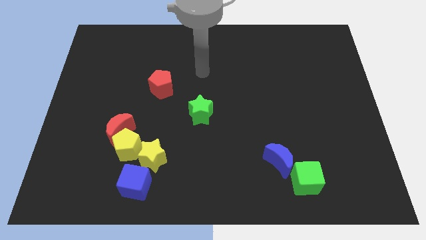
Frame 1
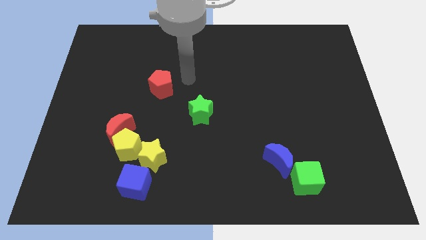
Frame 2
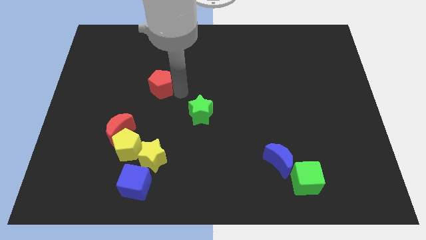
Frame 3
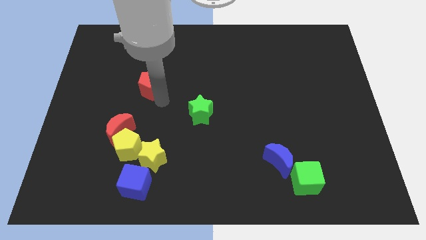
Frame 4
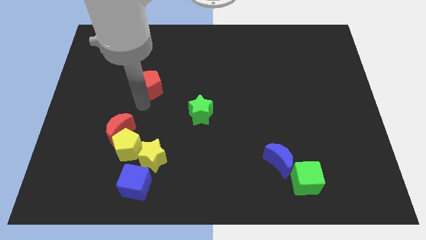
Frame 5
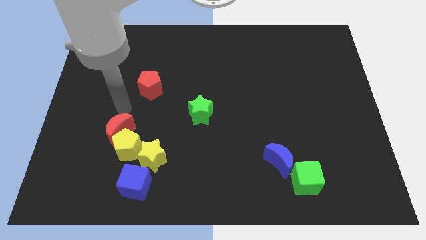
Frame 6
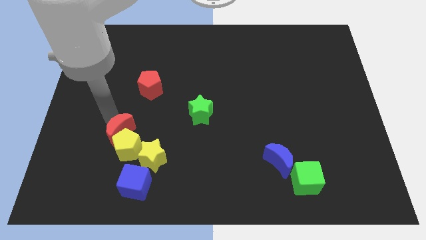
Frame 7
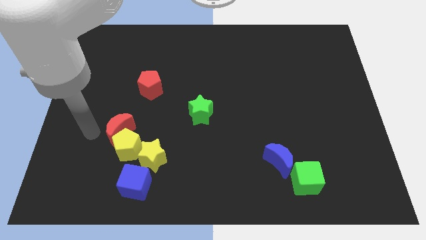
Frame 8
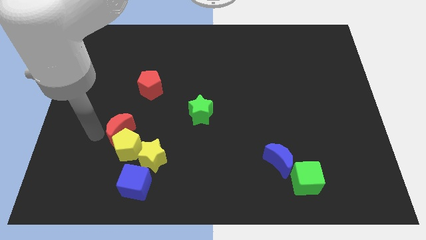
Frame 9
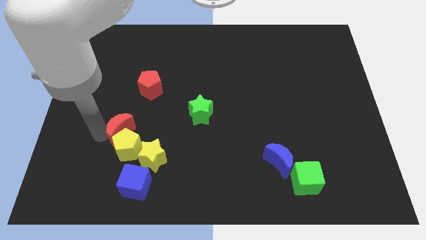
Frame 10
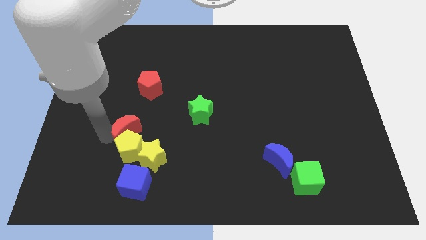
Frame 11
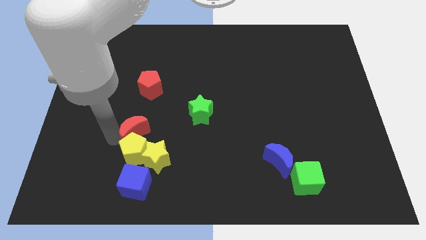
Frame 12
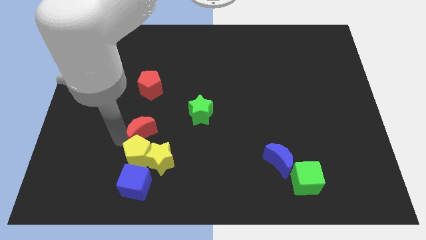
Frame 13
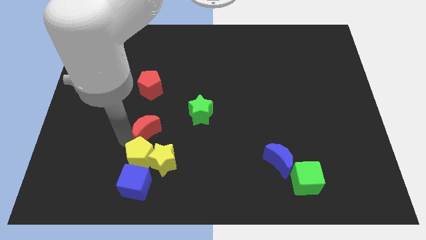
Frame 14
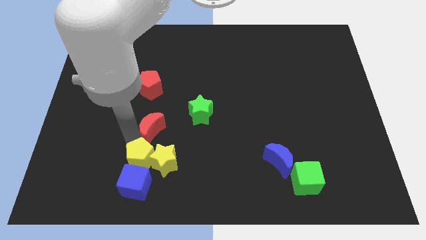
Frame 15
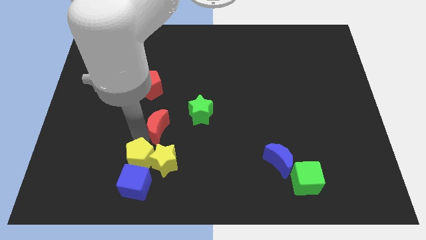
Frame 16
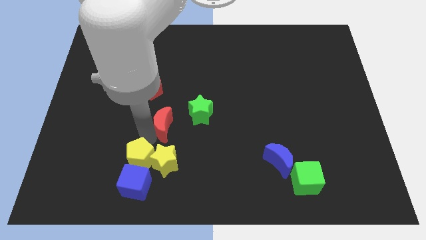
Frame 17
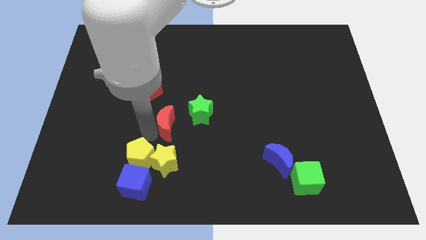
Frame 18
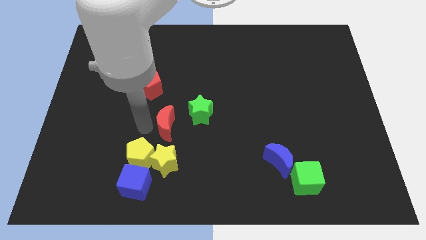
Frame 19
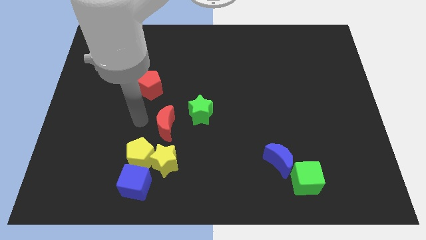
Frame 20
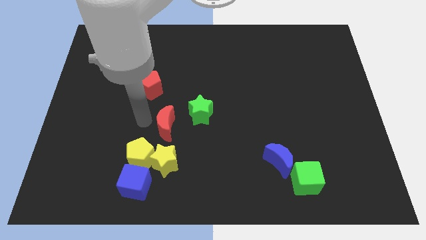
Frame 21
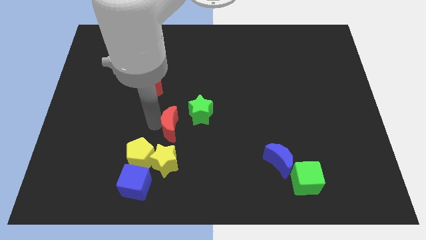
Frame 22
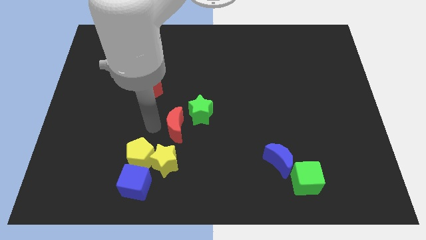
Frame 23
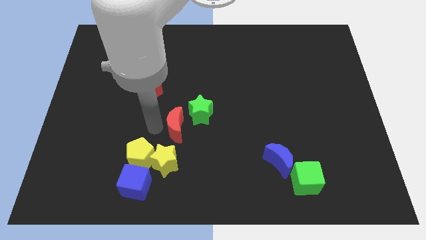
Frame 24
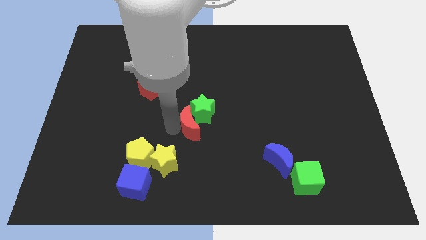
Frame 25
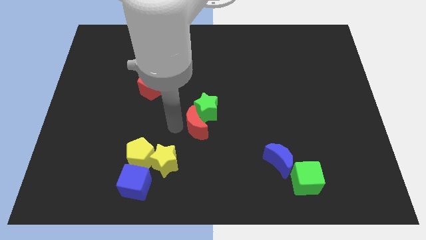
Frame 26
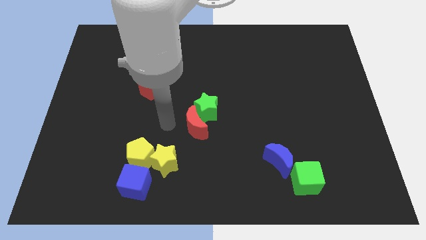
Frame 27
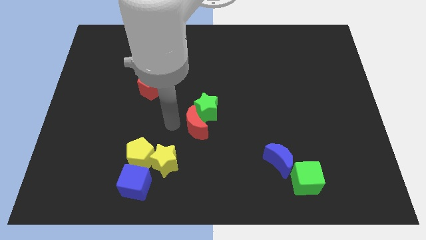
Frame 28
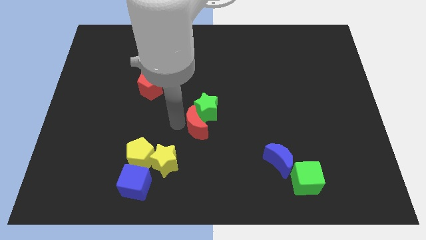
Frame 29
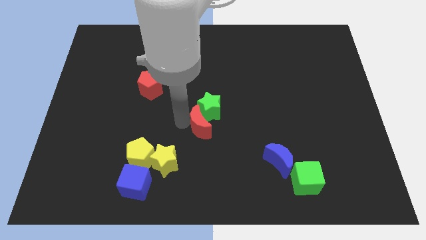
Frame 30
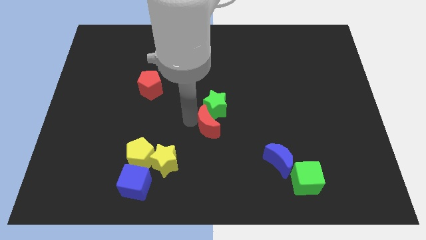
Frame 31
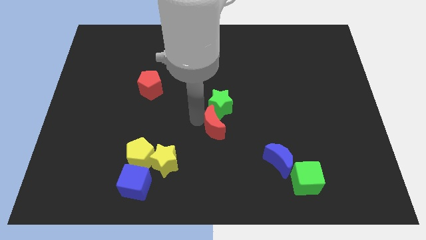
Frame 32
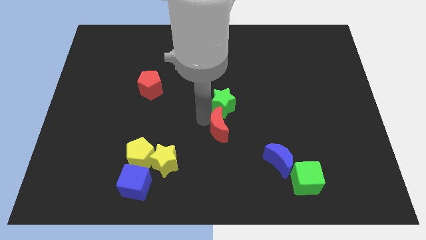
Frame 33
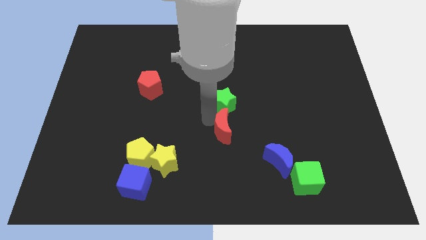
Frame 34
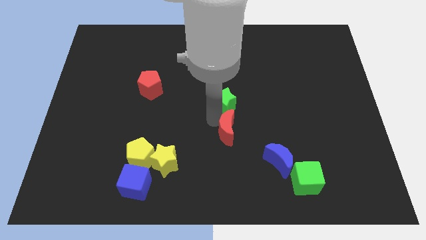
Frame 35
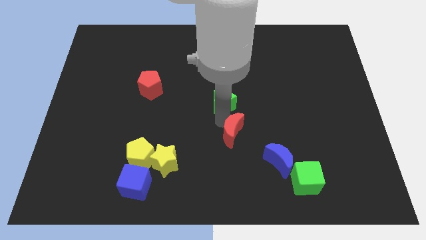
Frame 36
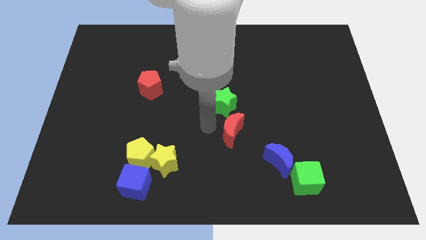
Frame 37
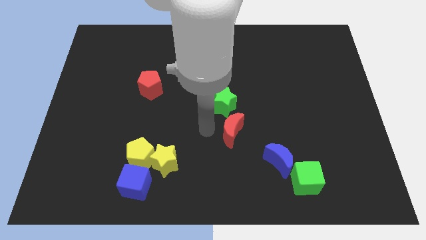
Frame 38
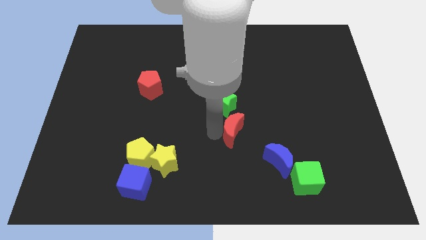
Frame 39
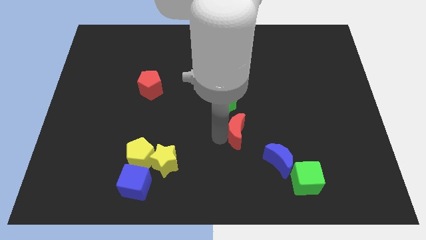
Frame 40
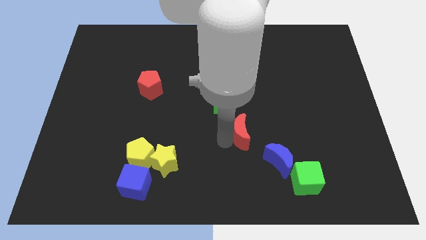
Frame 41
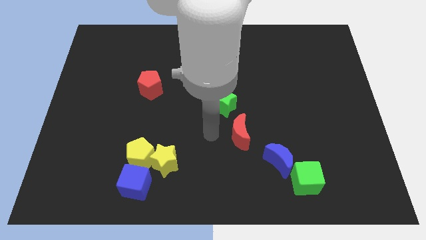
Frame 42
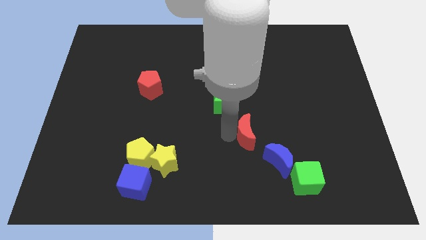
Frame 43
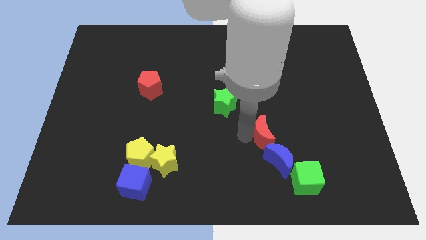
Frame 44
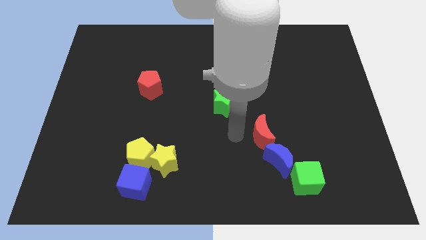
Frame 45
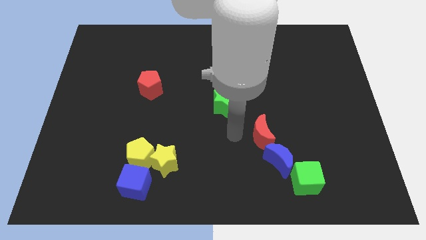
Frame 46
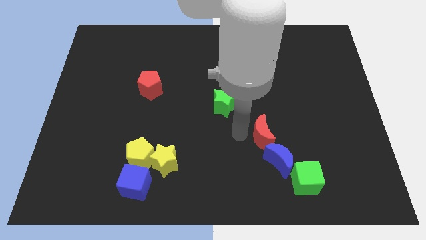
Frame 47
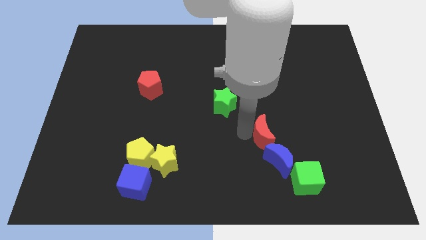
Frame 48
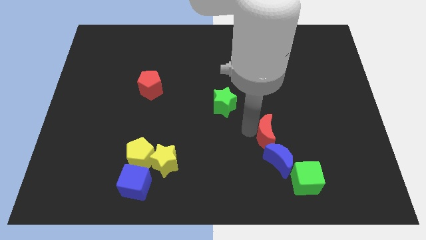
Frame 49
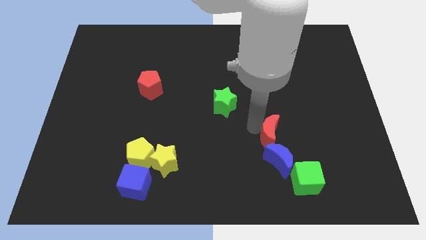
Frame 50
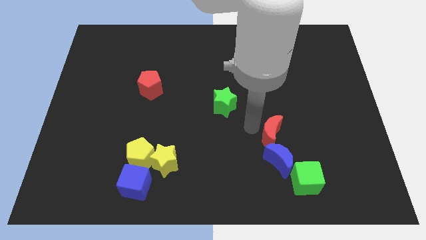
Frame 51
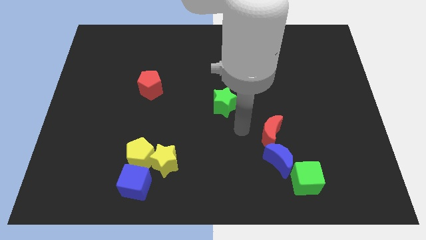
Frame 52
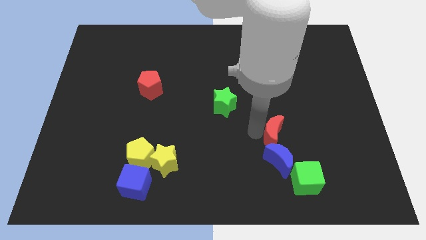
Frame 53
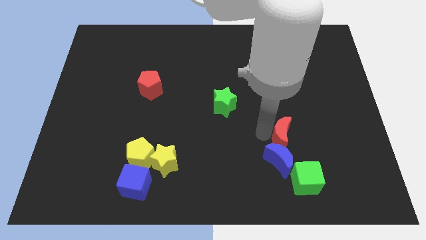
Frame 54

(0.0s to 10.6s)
put the red moon diagonally up and to the right of the blue moon

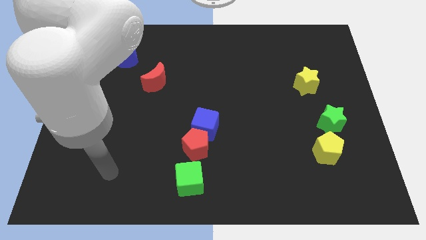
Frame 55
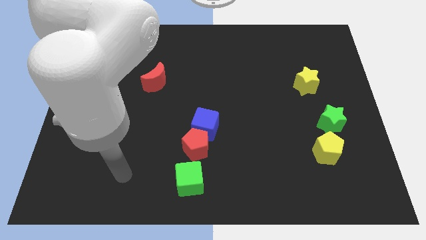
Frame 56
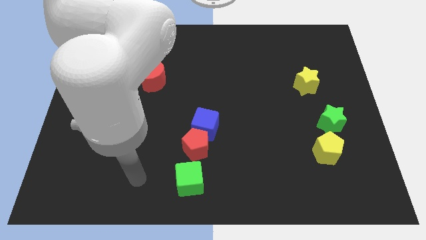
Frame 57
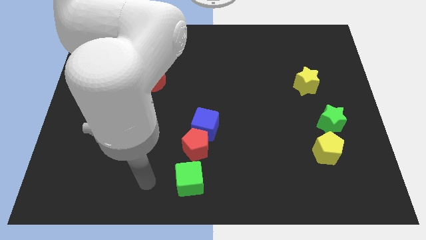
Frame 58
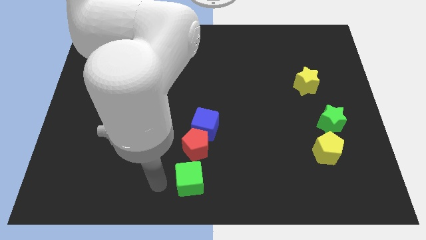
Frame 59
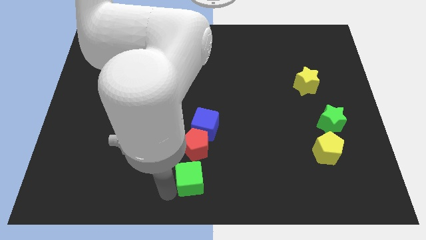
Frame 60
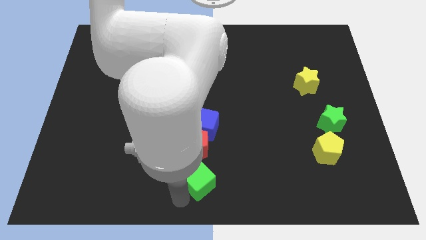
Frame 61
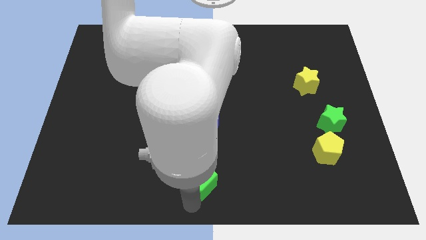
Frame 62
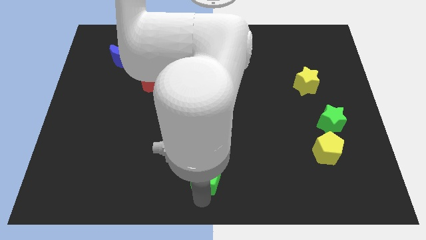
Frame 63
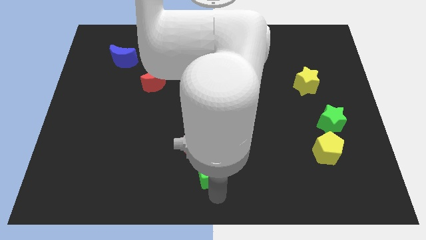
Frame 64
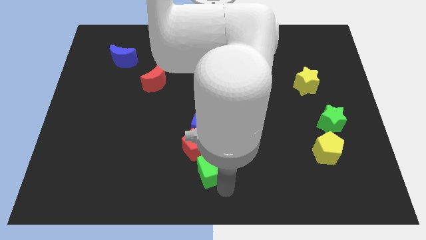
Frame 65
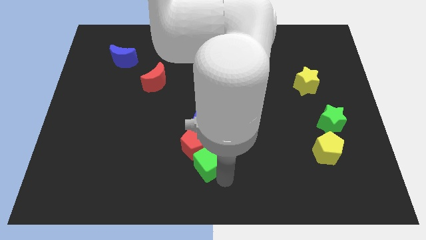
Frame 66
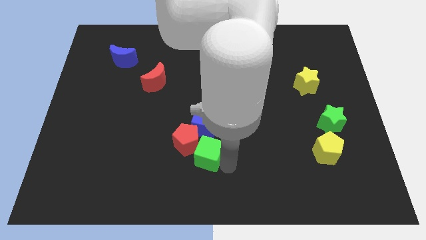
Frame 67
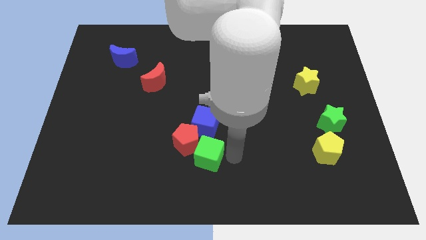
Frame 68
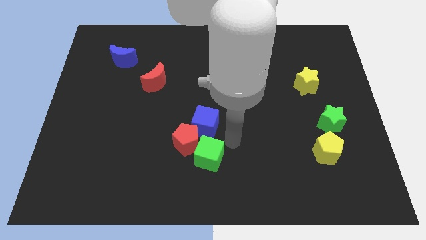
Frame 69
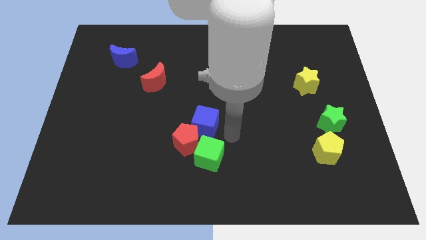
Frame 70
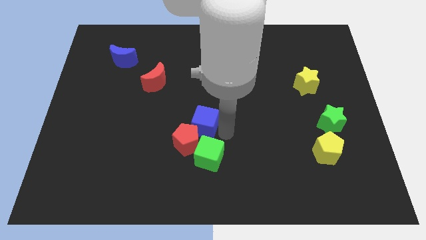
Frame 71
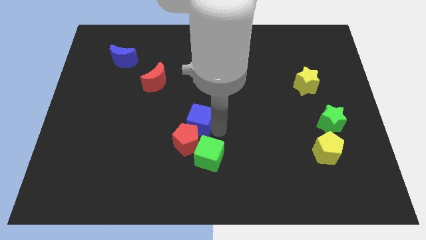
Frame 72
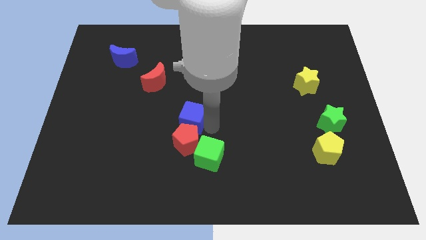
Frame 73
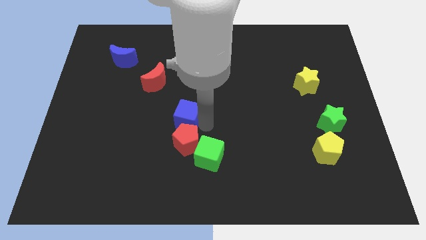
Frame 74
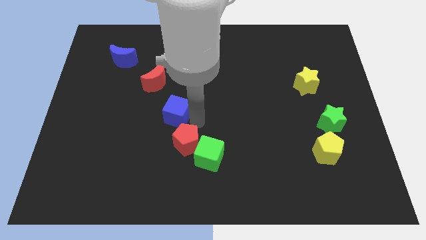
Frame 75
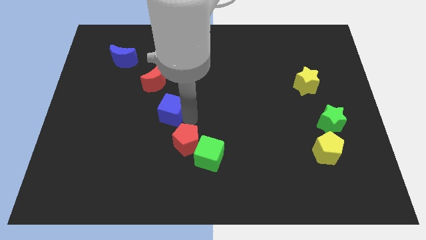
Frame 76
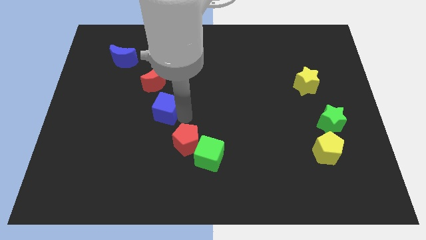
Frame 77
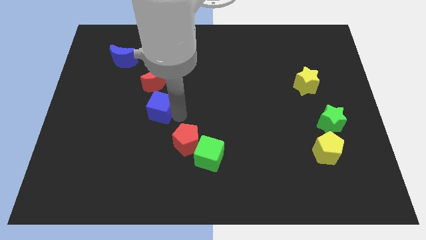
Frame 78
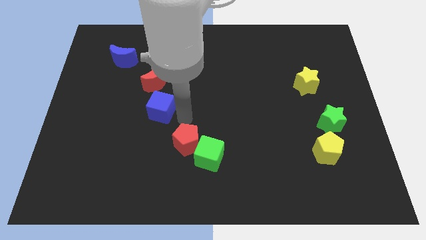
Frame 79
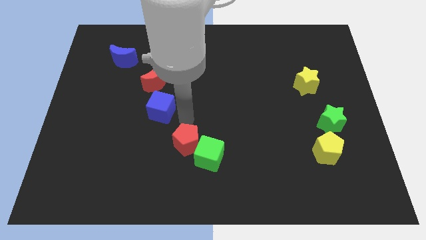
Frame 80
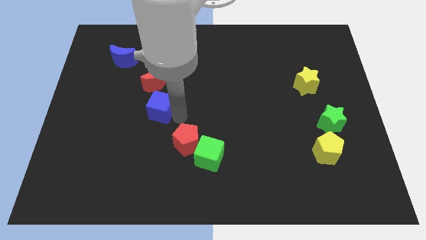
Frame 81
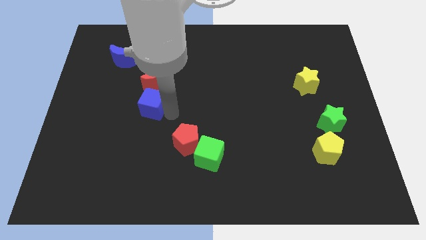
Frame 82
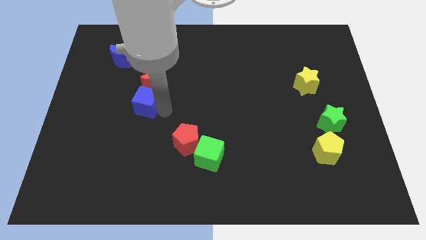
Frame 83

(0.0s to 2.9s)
push the blue cube diagonally down and to the left of the red moon
